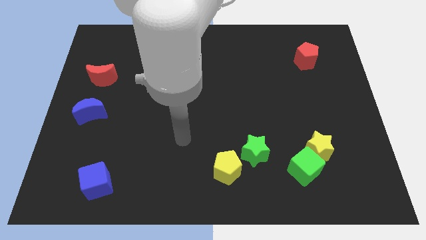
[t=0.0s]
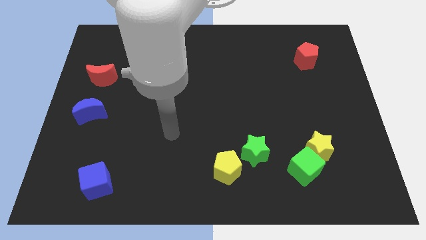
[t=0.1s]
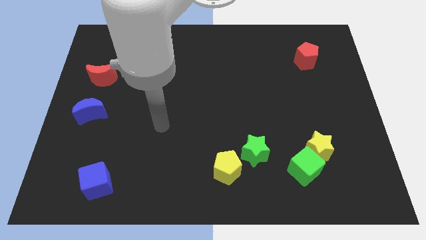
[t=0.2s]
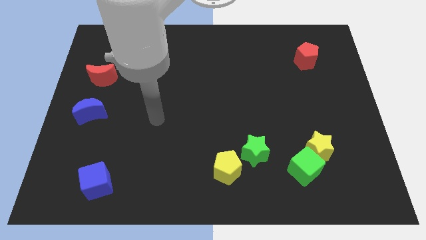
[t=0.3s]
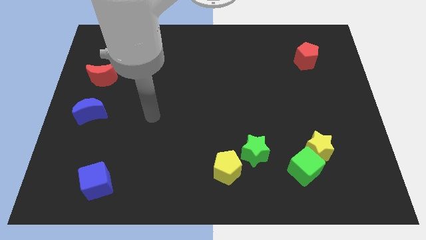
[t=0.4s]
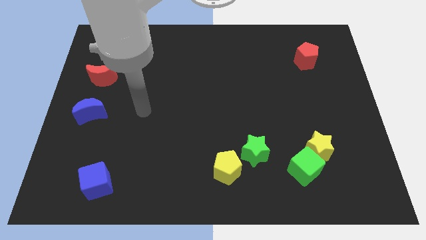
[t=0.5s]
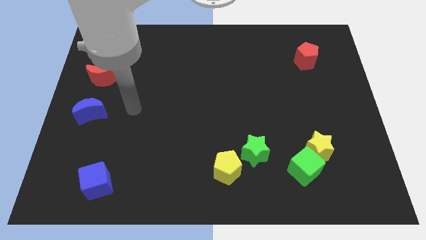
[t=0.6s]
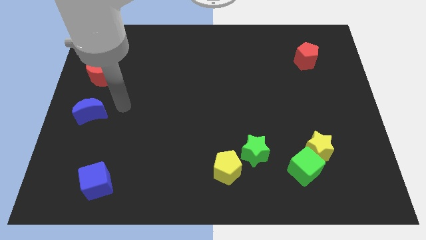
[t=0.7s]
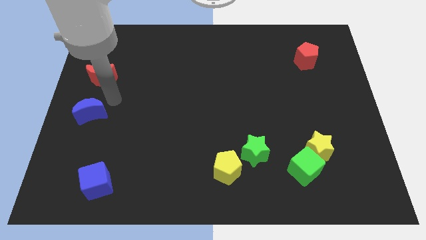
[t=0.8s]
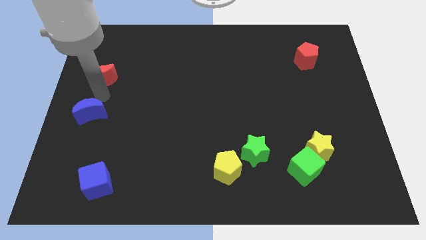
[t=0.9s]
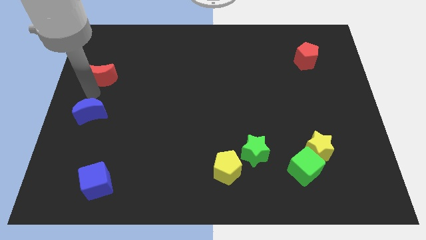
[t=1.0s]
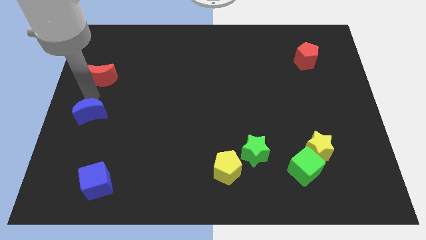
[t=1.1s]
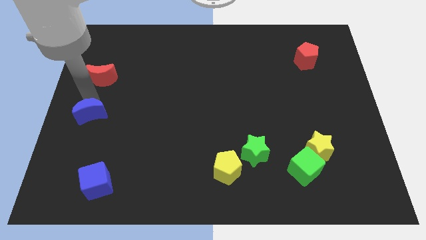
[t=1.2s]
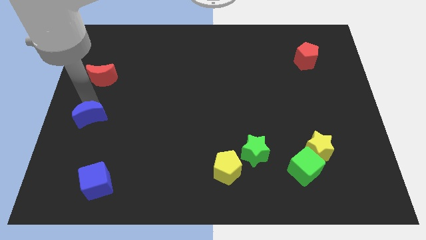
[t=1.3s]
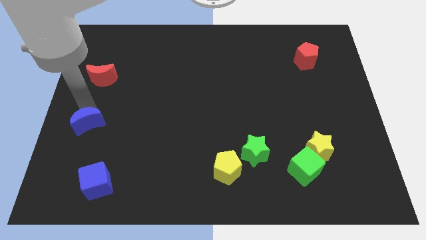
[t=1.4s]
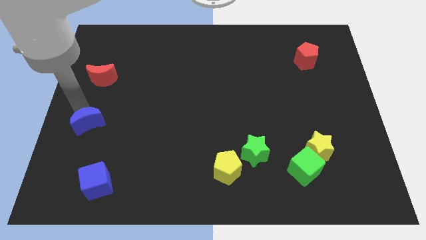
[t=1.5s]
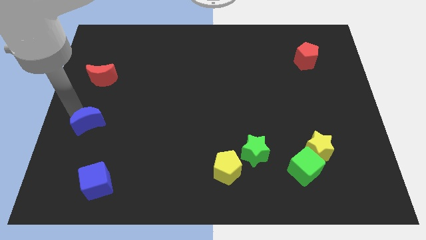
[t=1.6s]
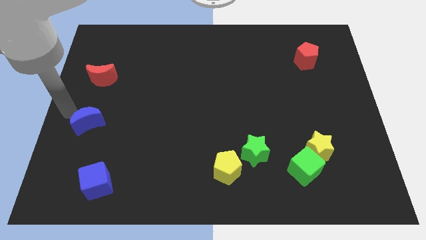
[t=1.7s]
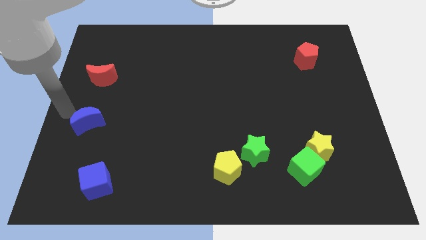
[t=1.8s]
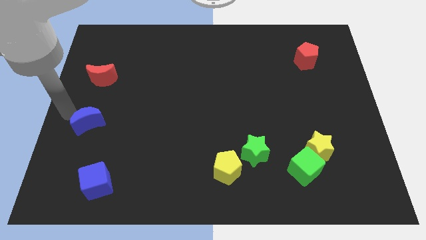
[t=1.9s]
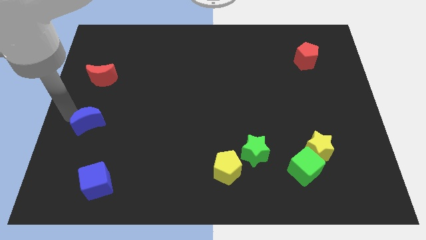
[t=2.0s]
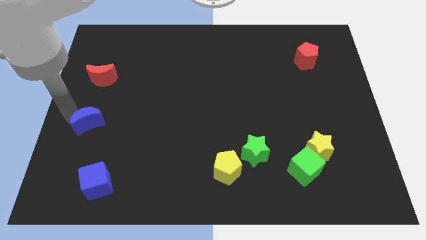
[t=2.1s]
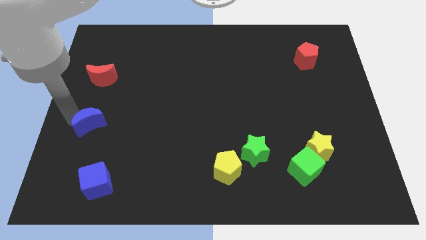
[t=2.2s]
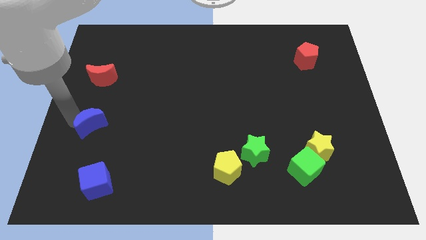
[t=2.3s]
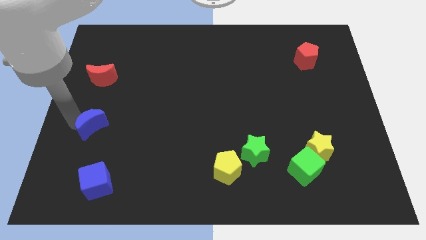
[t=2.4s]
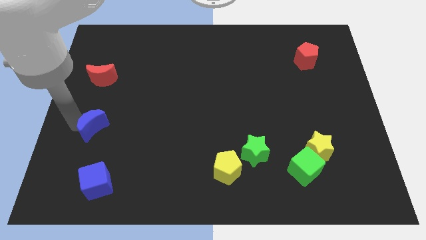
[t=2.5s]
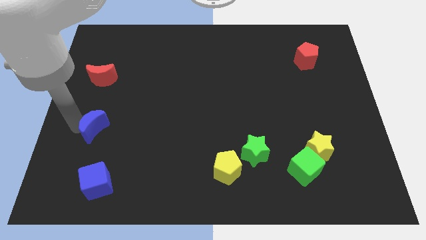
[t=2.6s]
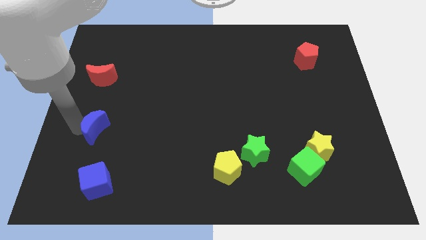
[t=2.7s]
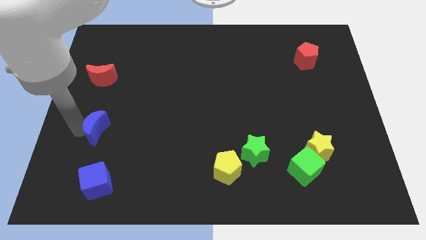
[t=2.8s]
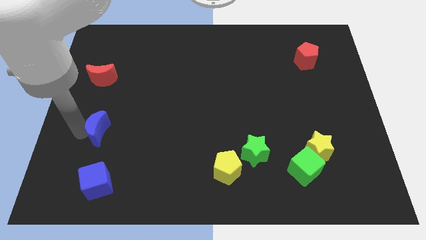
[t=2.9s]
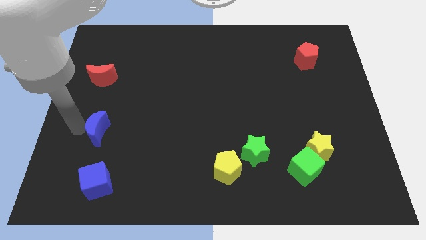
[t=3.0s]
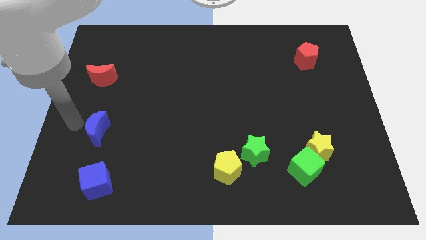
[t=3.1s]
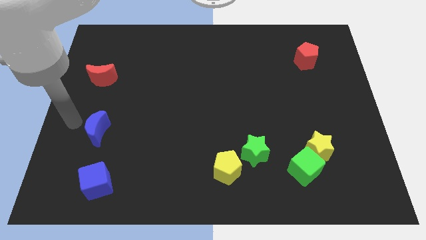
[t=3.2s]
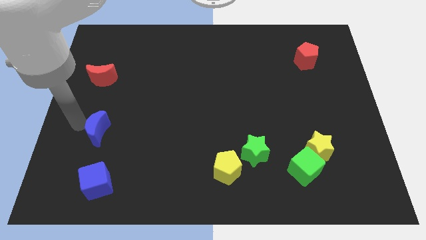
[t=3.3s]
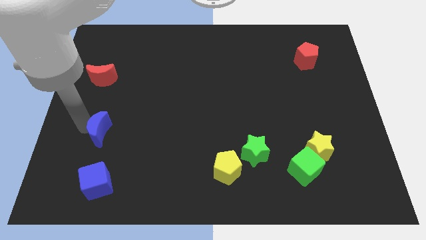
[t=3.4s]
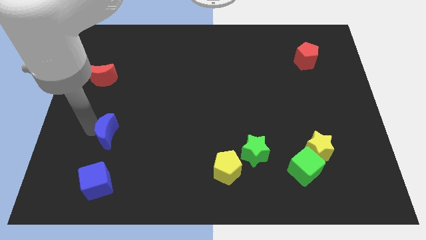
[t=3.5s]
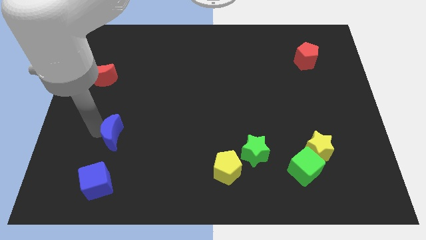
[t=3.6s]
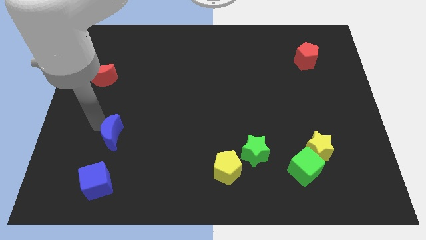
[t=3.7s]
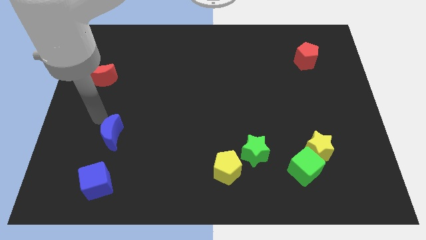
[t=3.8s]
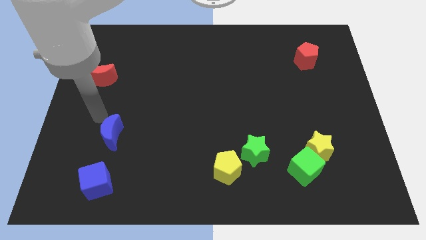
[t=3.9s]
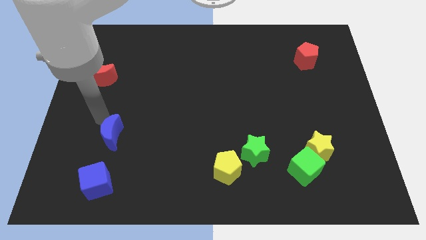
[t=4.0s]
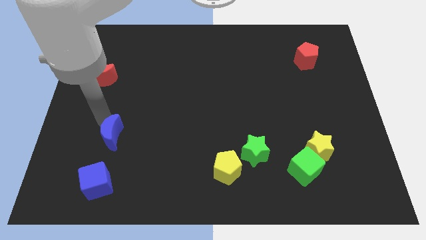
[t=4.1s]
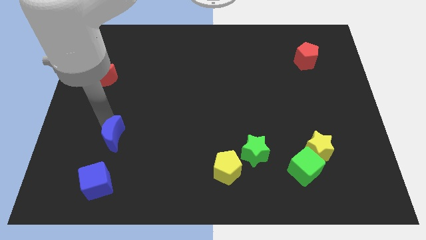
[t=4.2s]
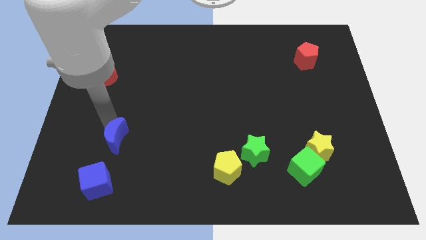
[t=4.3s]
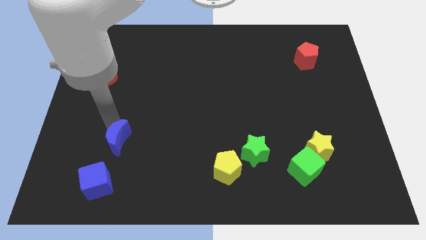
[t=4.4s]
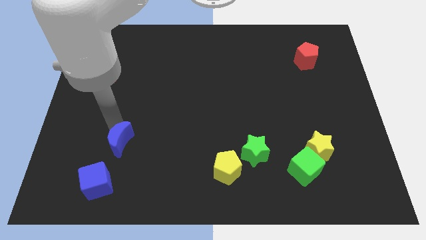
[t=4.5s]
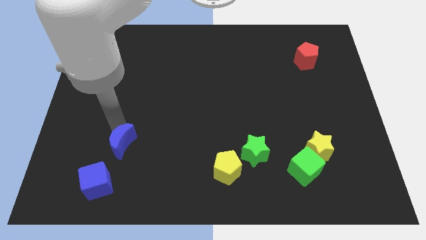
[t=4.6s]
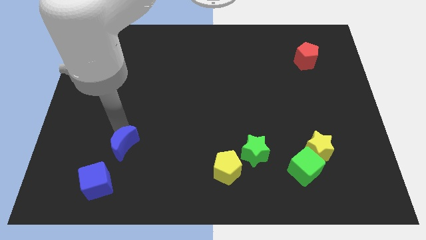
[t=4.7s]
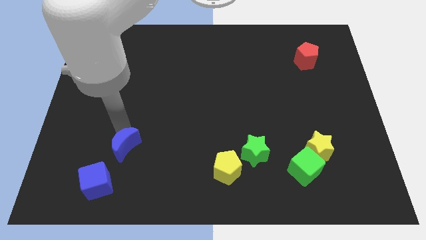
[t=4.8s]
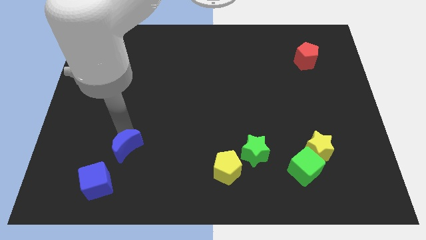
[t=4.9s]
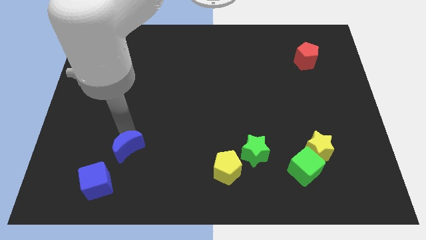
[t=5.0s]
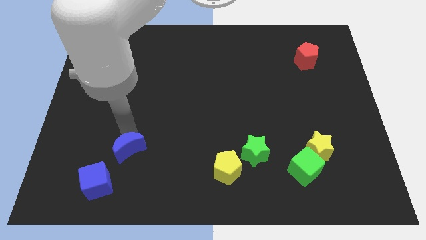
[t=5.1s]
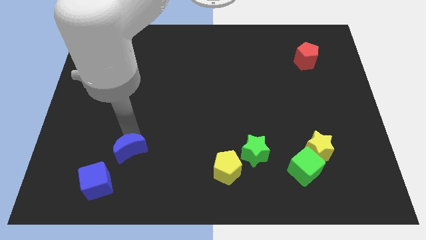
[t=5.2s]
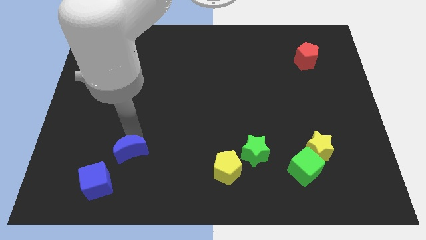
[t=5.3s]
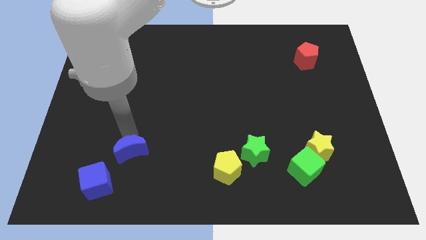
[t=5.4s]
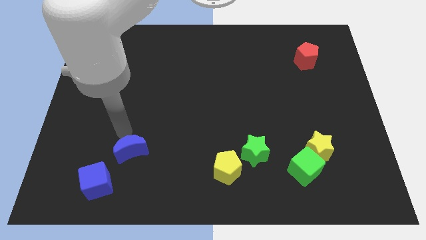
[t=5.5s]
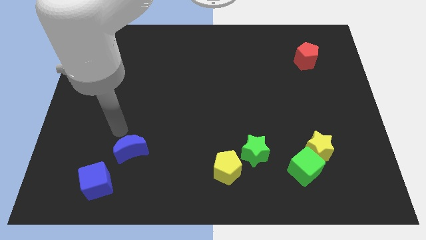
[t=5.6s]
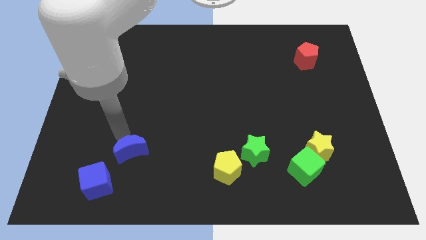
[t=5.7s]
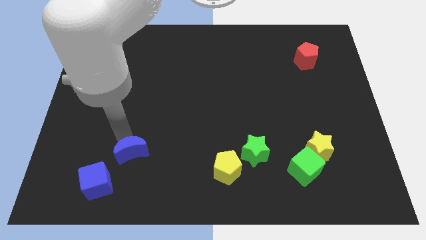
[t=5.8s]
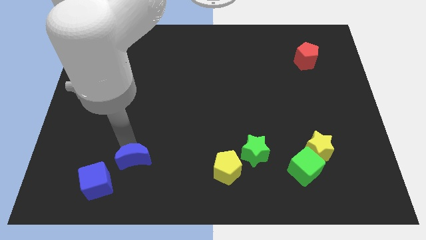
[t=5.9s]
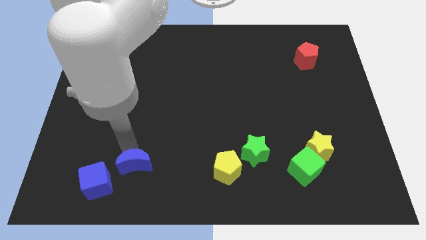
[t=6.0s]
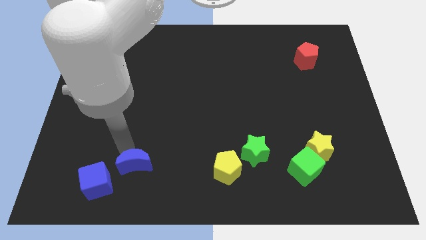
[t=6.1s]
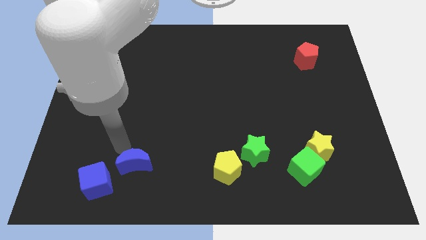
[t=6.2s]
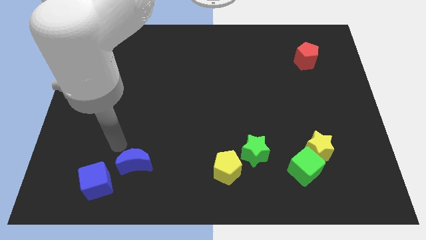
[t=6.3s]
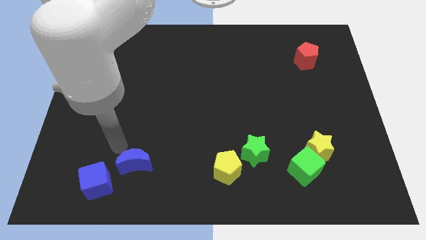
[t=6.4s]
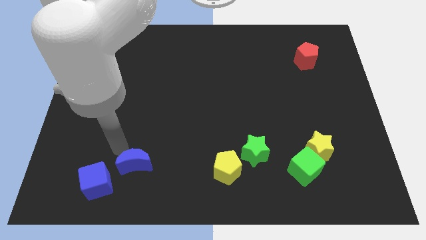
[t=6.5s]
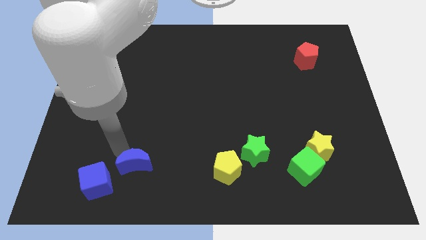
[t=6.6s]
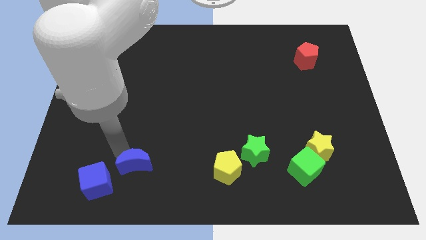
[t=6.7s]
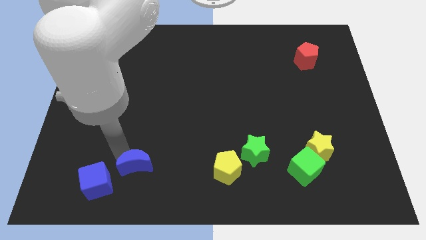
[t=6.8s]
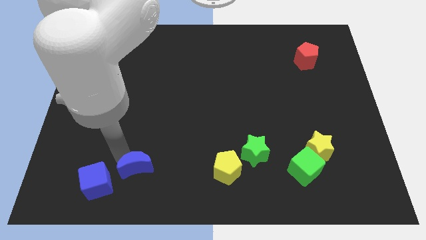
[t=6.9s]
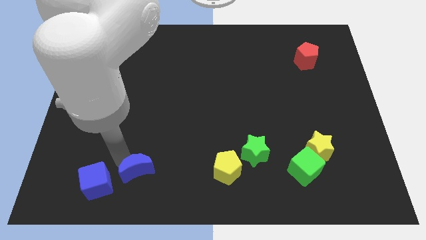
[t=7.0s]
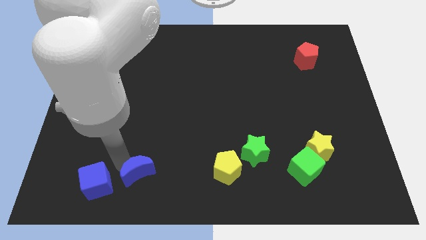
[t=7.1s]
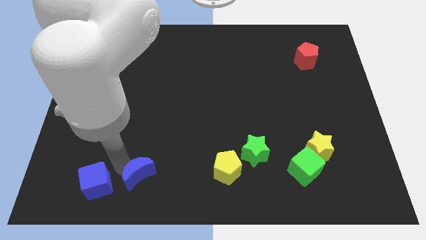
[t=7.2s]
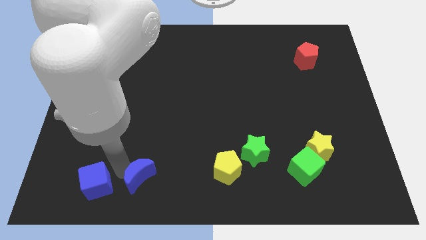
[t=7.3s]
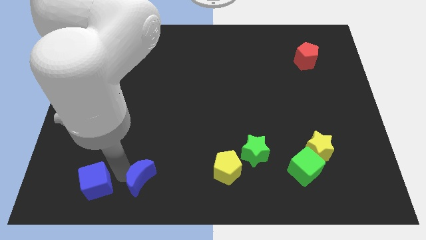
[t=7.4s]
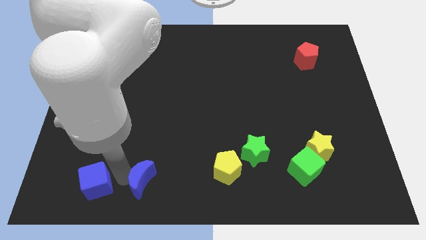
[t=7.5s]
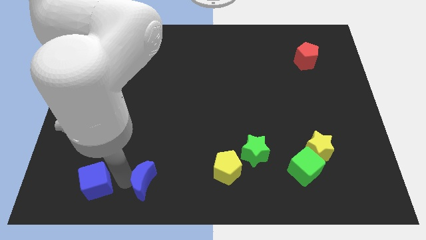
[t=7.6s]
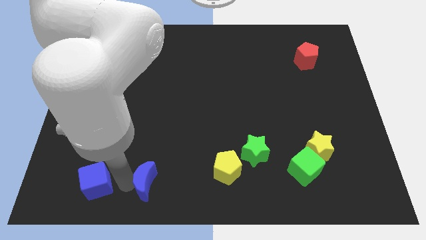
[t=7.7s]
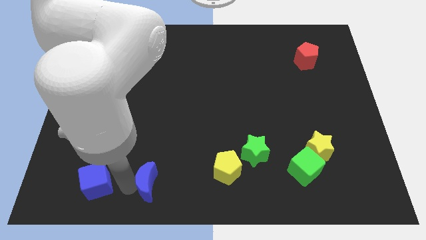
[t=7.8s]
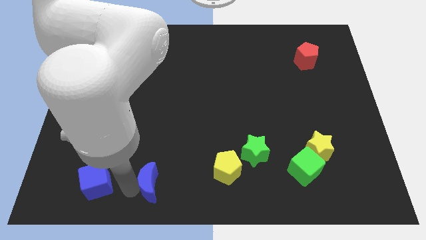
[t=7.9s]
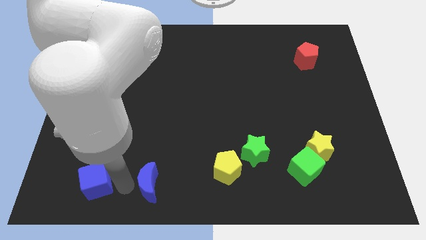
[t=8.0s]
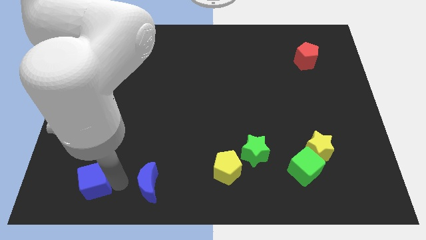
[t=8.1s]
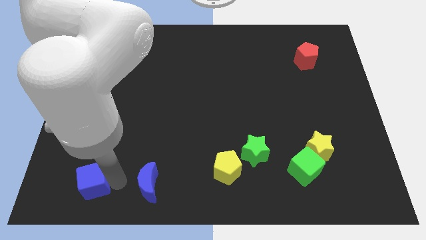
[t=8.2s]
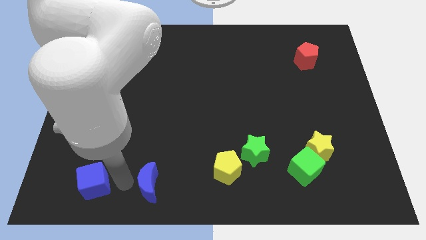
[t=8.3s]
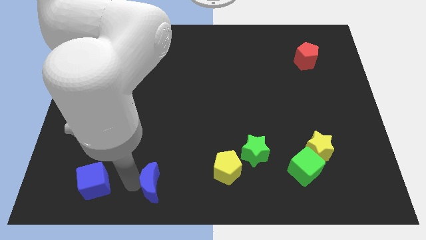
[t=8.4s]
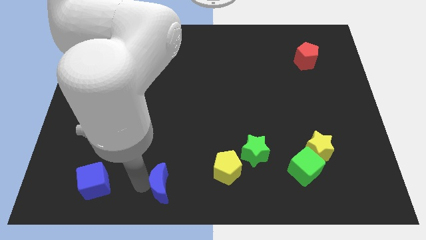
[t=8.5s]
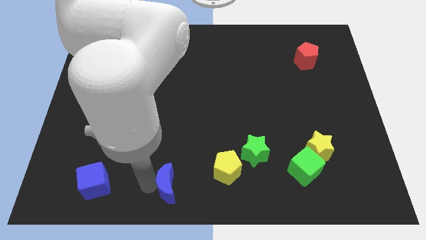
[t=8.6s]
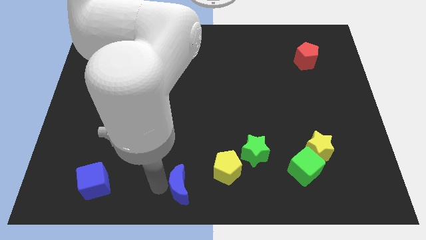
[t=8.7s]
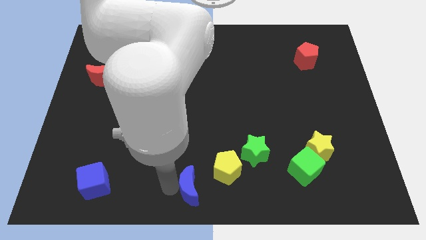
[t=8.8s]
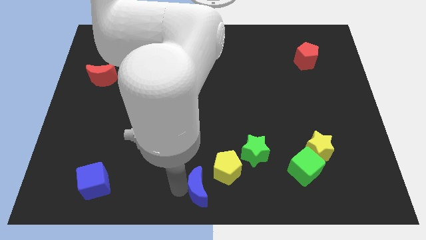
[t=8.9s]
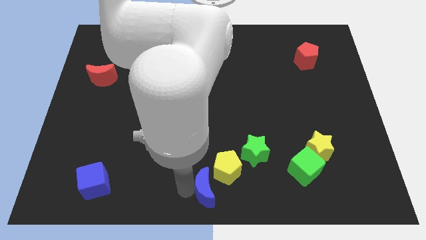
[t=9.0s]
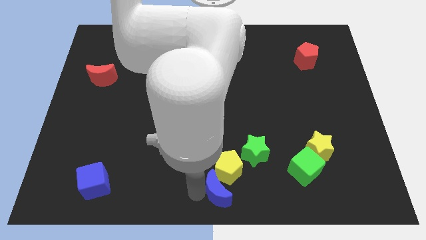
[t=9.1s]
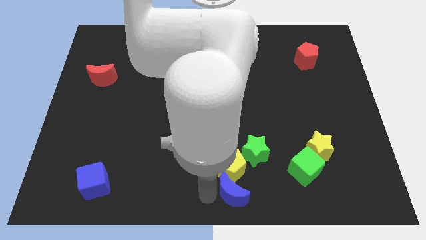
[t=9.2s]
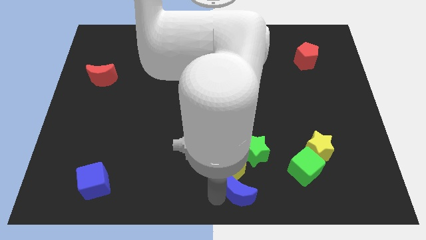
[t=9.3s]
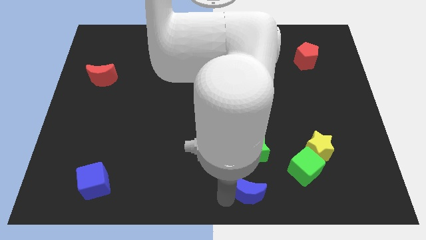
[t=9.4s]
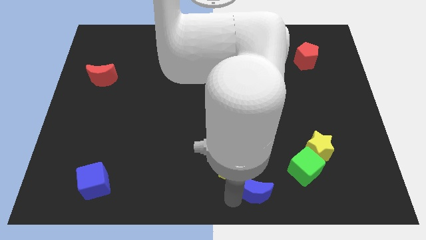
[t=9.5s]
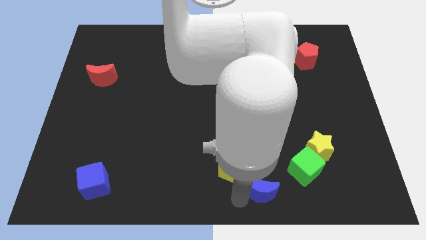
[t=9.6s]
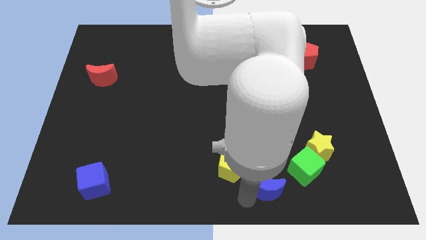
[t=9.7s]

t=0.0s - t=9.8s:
put the blue moon right of the yellow pentagon
